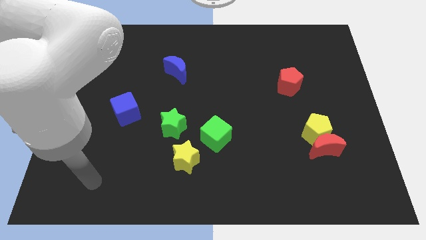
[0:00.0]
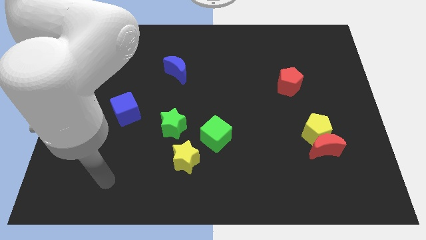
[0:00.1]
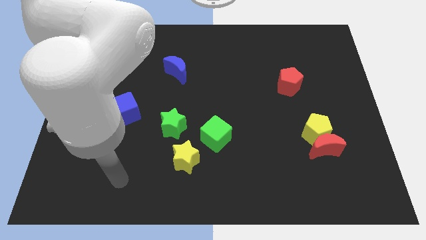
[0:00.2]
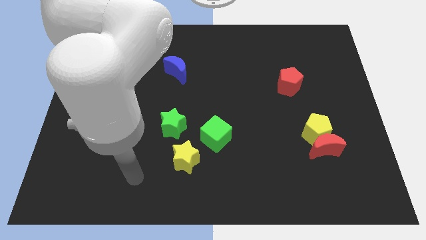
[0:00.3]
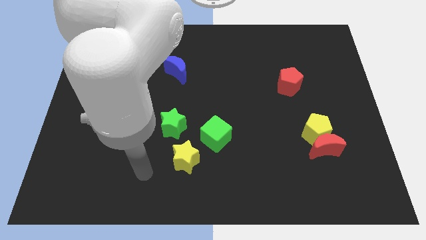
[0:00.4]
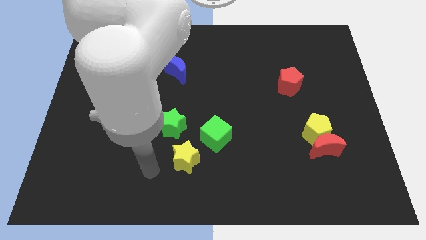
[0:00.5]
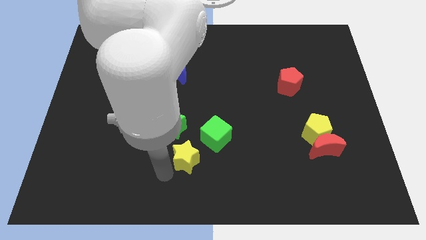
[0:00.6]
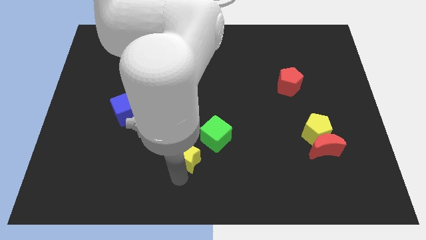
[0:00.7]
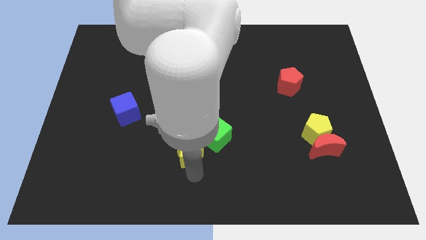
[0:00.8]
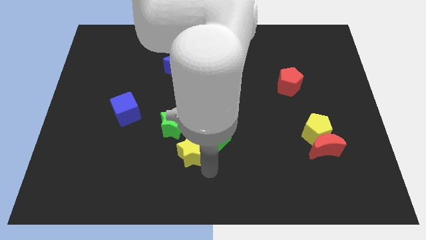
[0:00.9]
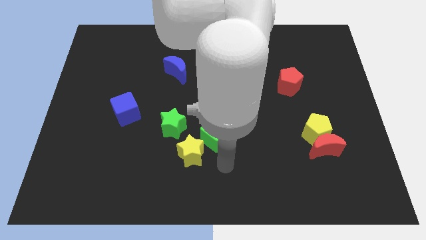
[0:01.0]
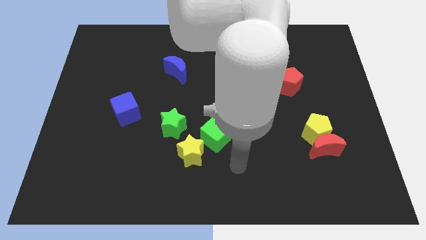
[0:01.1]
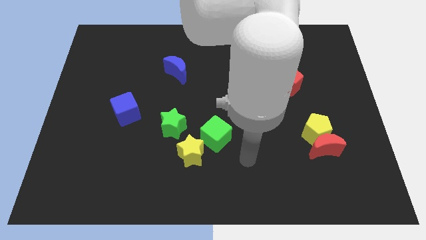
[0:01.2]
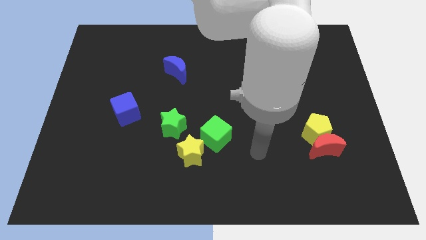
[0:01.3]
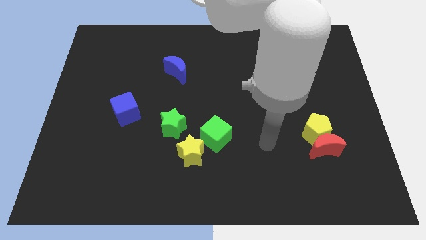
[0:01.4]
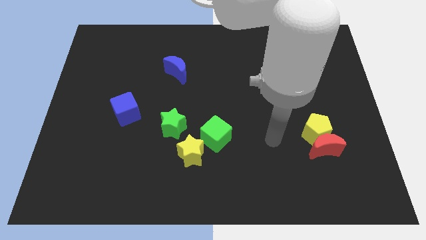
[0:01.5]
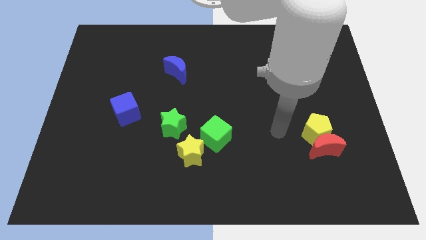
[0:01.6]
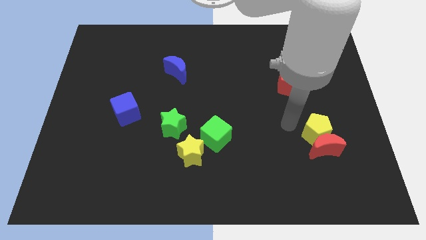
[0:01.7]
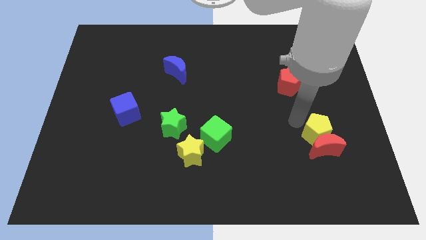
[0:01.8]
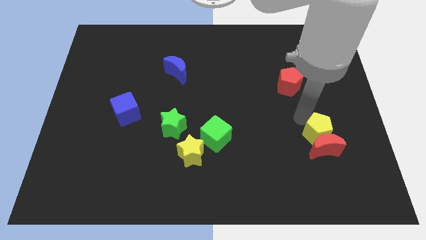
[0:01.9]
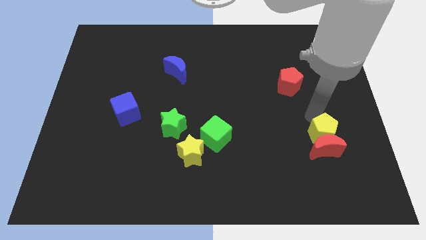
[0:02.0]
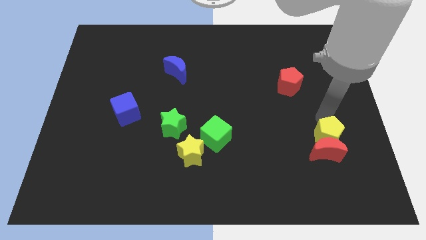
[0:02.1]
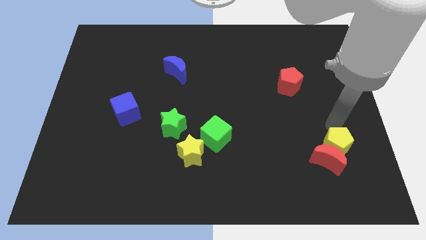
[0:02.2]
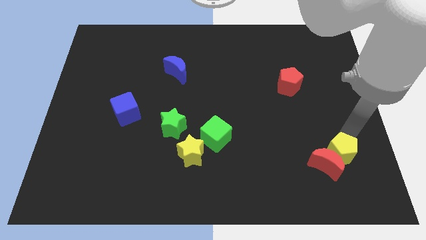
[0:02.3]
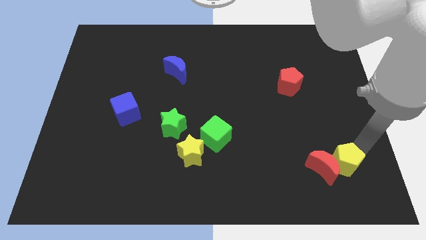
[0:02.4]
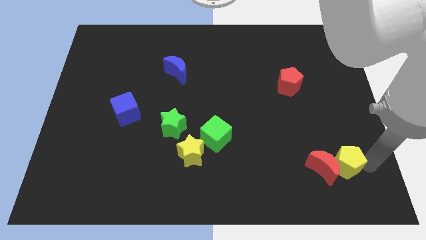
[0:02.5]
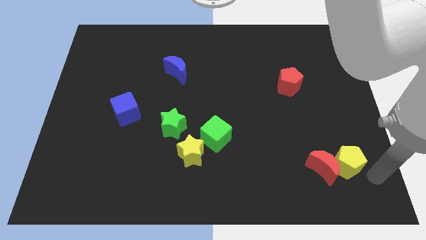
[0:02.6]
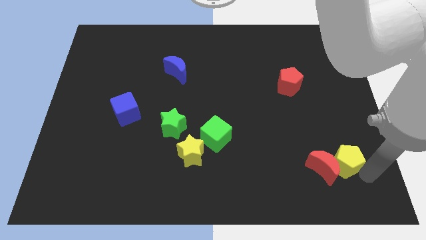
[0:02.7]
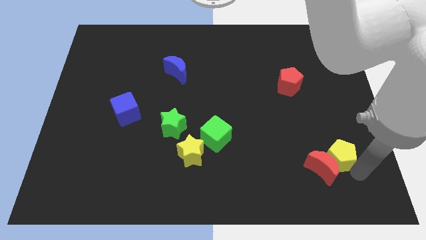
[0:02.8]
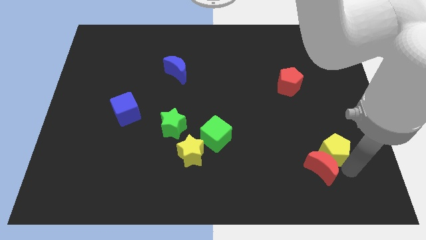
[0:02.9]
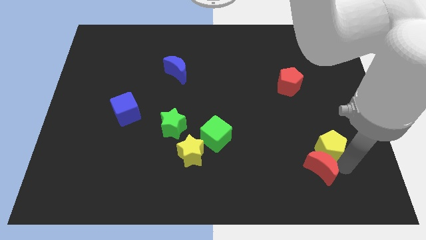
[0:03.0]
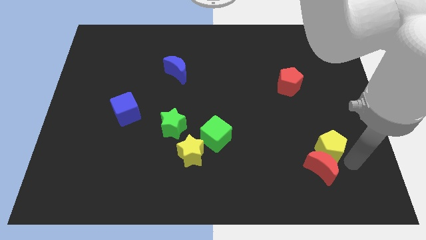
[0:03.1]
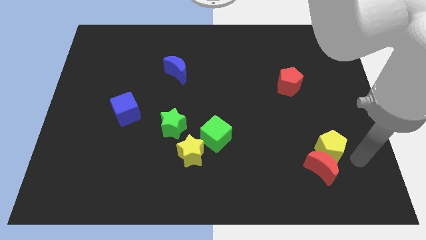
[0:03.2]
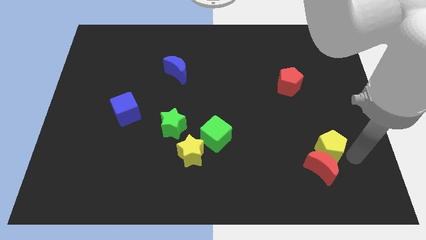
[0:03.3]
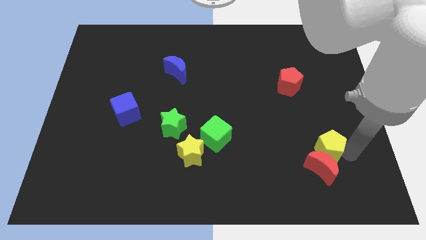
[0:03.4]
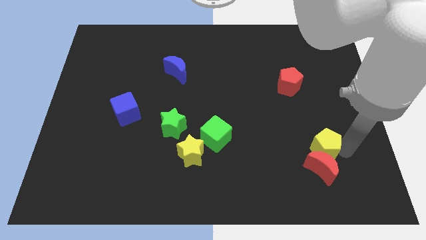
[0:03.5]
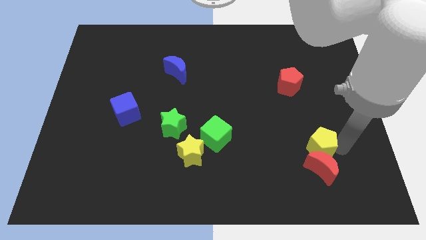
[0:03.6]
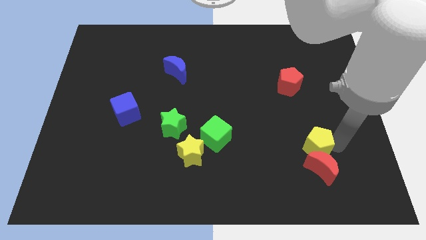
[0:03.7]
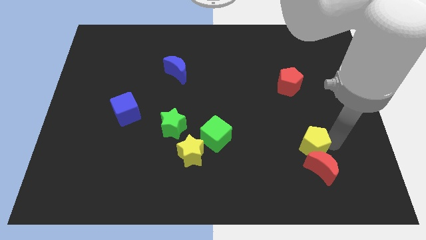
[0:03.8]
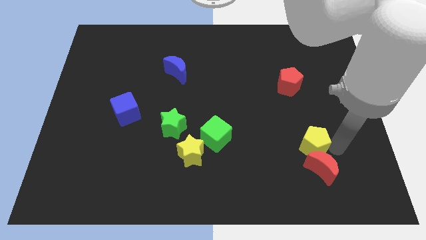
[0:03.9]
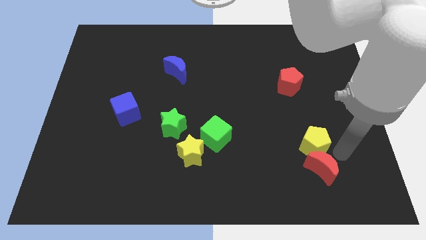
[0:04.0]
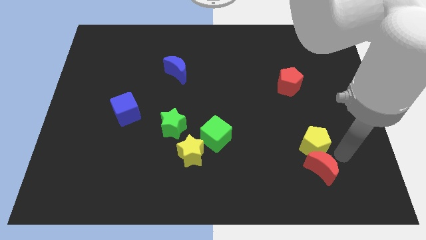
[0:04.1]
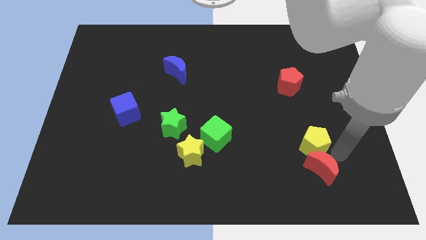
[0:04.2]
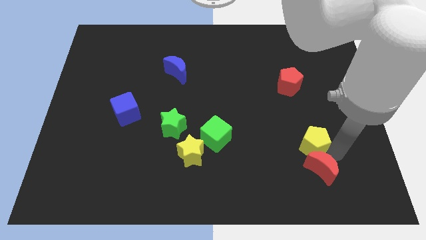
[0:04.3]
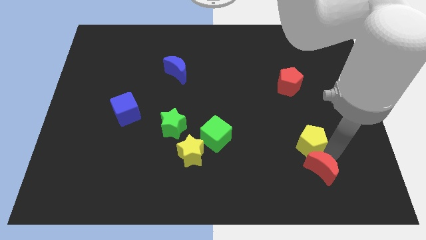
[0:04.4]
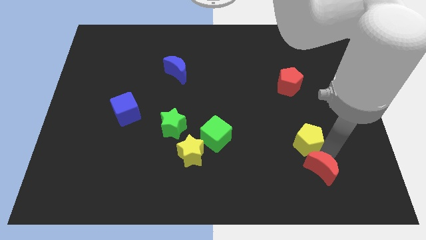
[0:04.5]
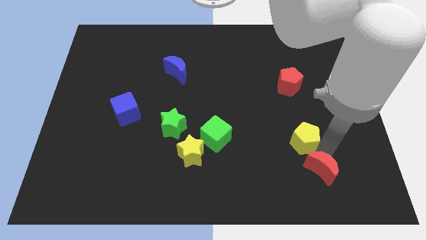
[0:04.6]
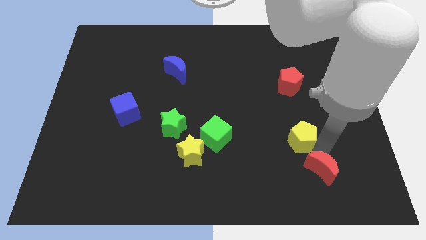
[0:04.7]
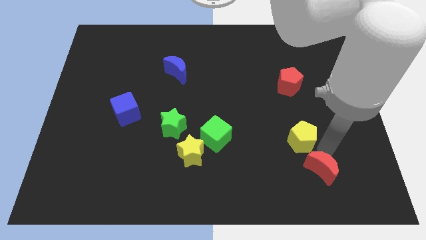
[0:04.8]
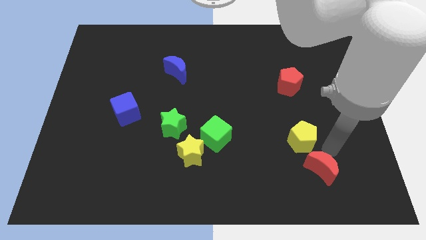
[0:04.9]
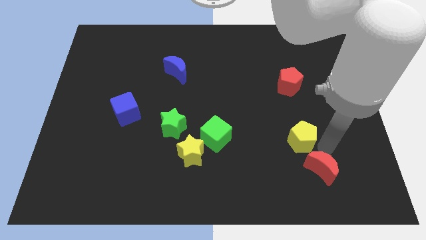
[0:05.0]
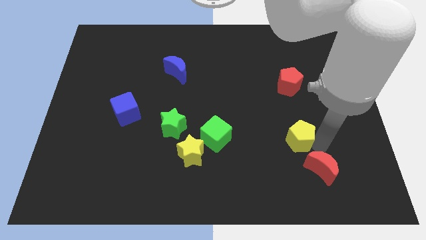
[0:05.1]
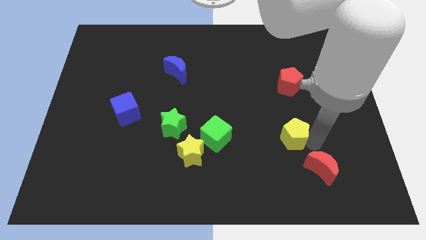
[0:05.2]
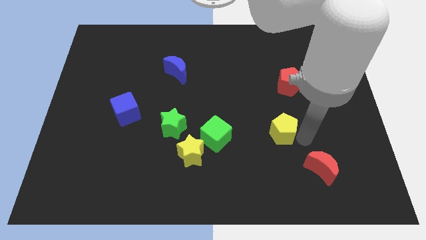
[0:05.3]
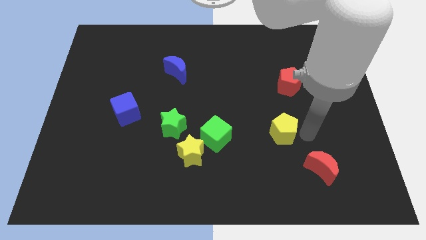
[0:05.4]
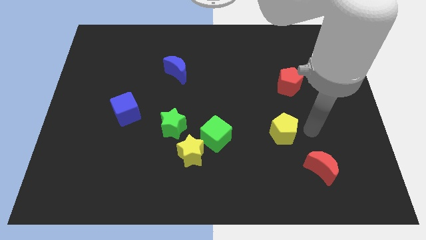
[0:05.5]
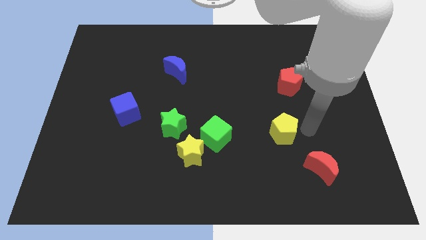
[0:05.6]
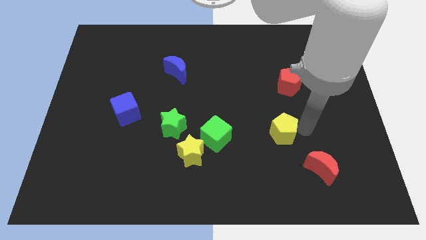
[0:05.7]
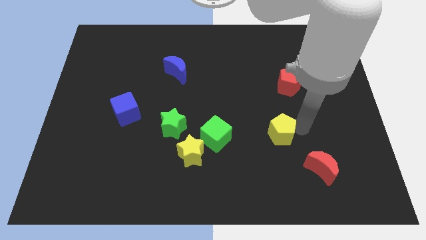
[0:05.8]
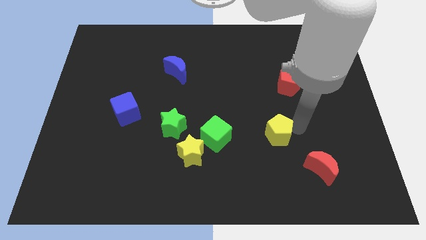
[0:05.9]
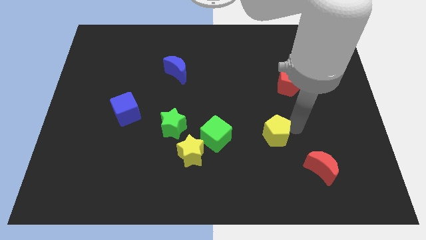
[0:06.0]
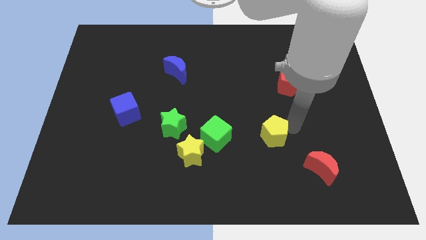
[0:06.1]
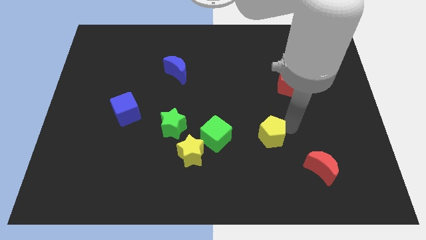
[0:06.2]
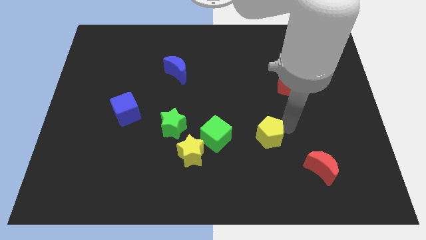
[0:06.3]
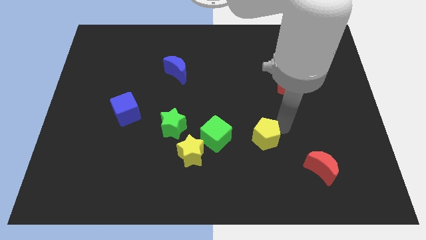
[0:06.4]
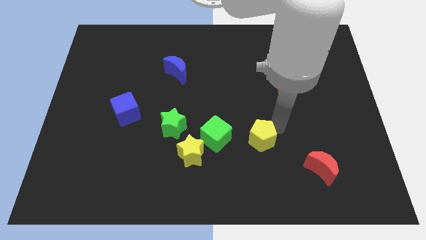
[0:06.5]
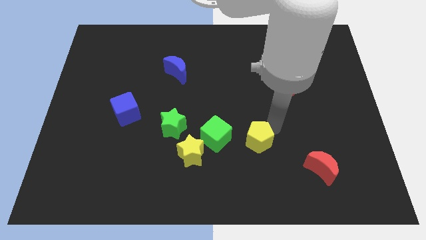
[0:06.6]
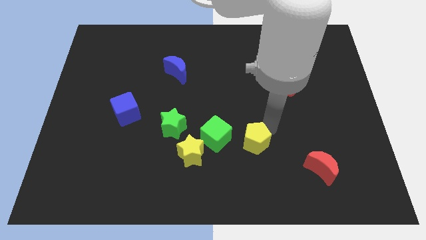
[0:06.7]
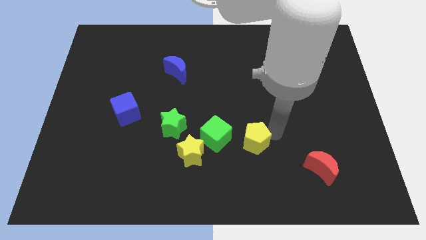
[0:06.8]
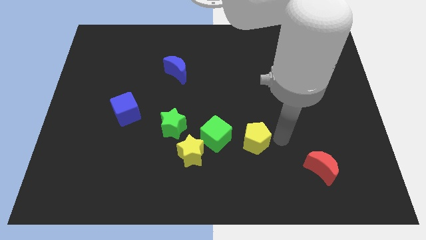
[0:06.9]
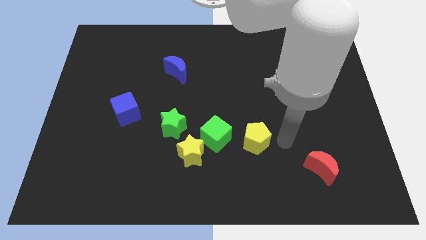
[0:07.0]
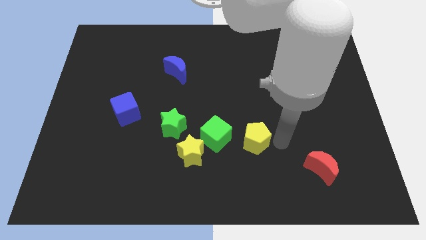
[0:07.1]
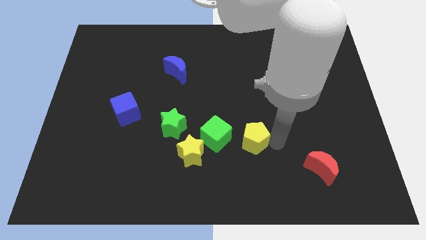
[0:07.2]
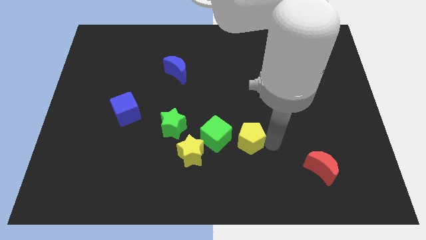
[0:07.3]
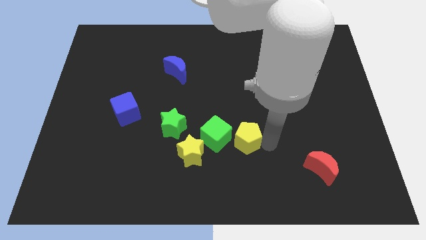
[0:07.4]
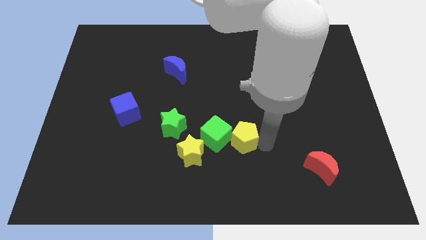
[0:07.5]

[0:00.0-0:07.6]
move the yellow pentagon to the green cube
